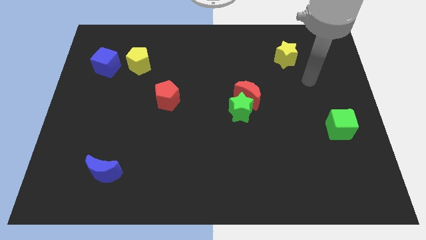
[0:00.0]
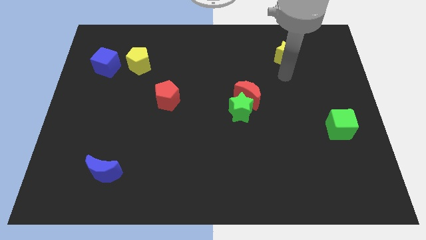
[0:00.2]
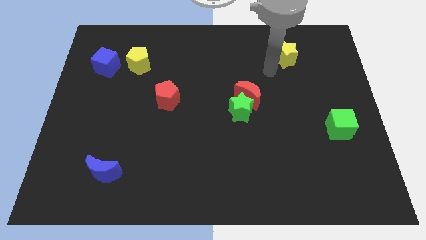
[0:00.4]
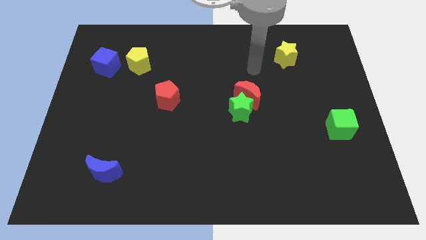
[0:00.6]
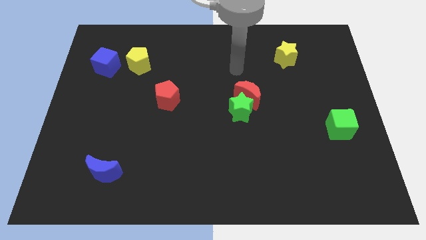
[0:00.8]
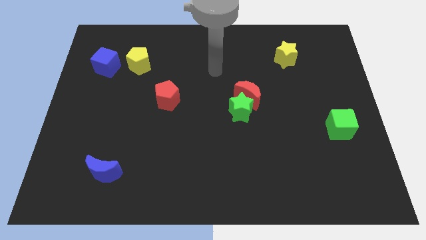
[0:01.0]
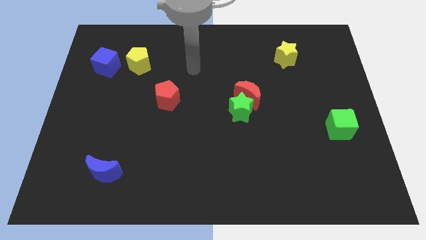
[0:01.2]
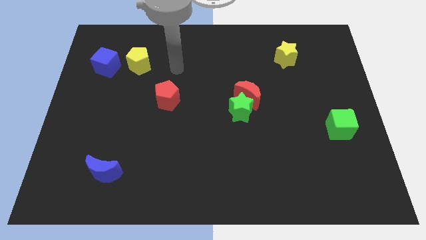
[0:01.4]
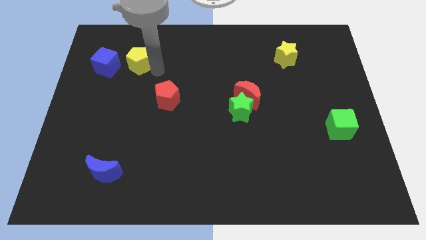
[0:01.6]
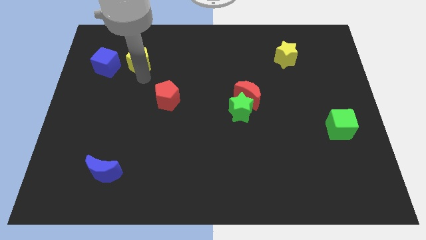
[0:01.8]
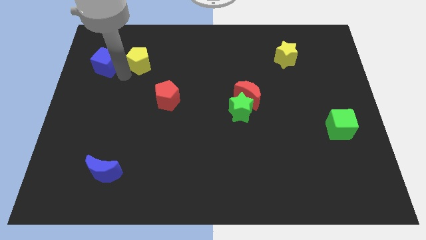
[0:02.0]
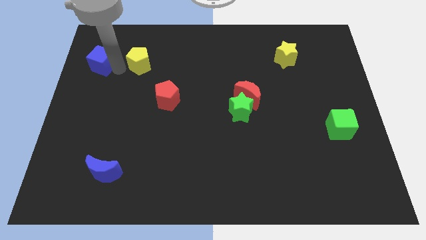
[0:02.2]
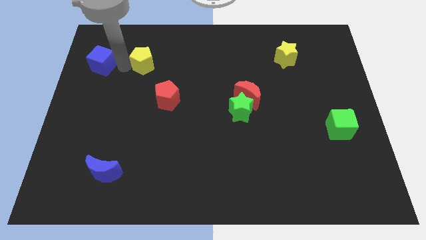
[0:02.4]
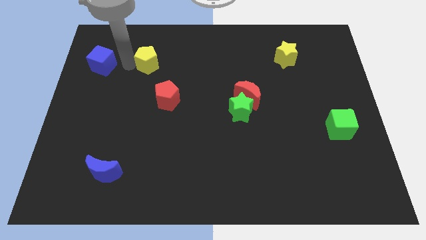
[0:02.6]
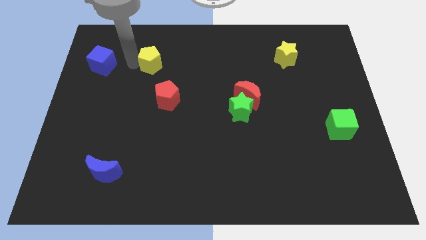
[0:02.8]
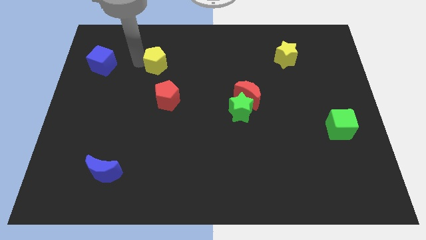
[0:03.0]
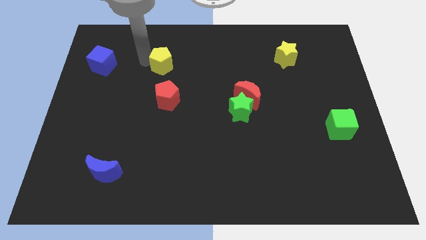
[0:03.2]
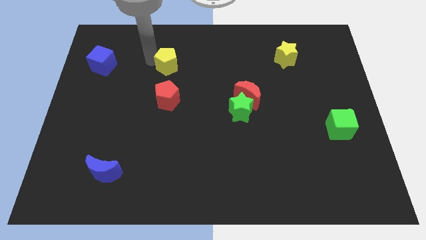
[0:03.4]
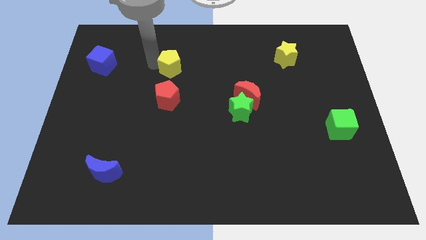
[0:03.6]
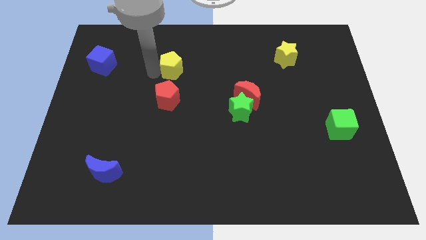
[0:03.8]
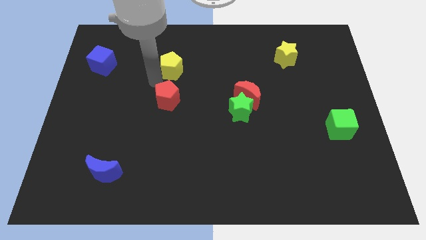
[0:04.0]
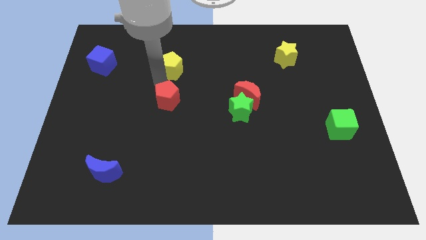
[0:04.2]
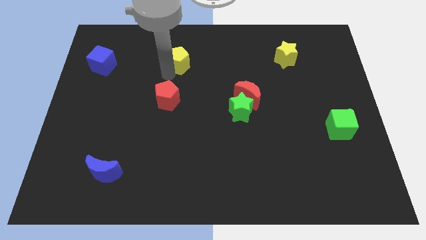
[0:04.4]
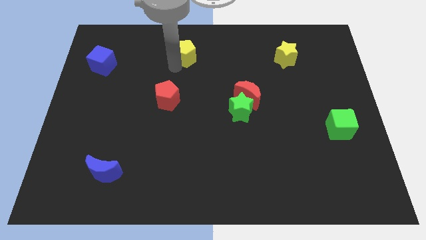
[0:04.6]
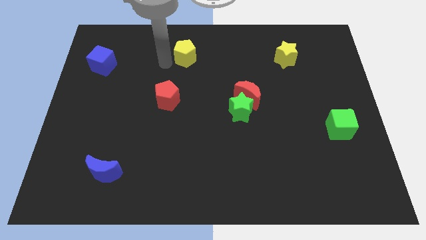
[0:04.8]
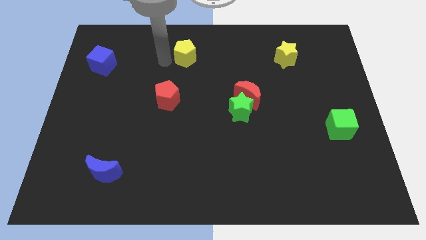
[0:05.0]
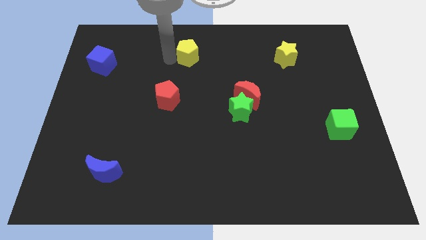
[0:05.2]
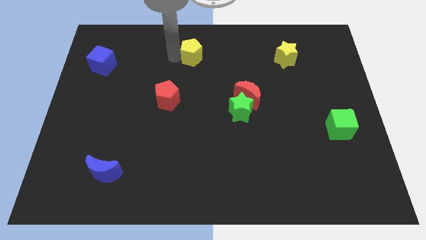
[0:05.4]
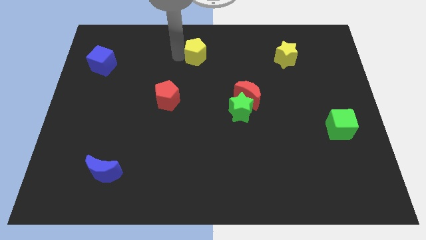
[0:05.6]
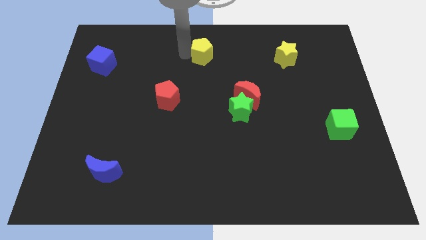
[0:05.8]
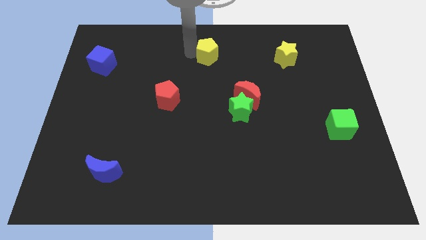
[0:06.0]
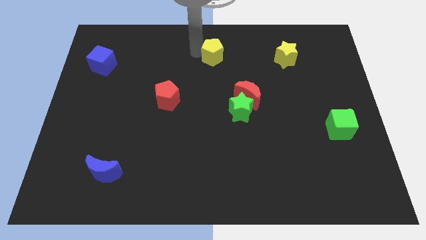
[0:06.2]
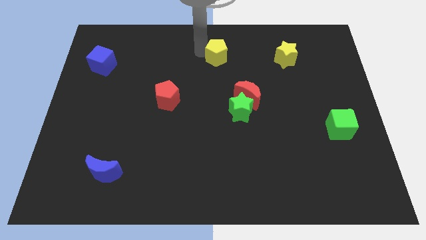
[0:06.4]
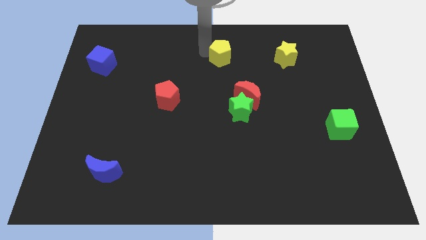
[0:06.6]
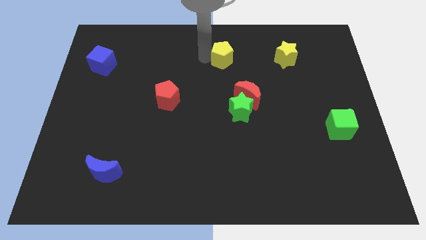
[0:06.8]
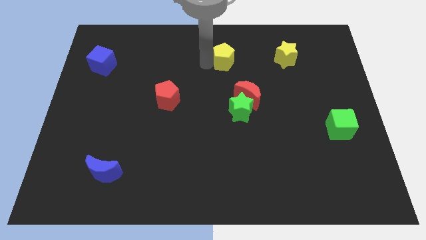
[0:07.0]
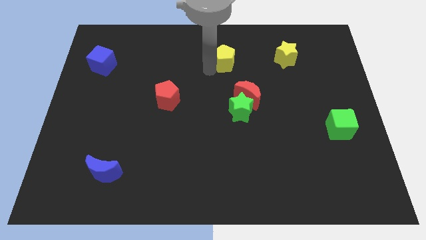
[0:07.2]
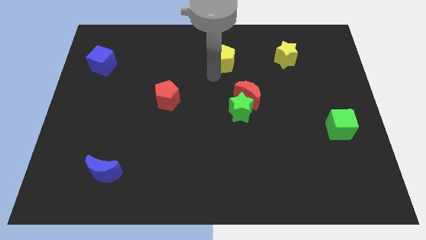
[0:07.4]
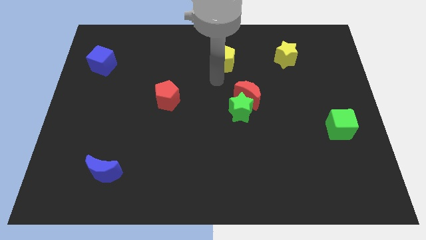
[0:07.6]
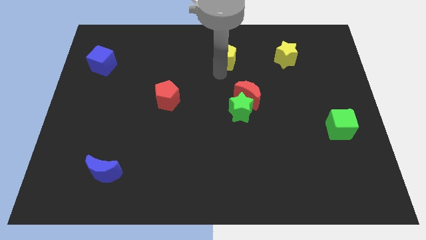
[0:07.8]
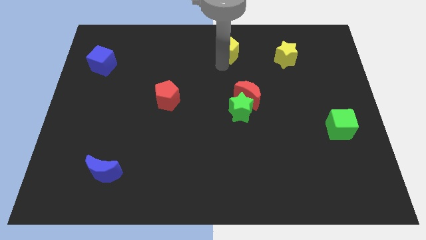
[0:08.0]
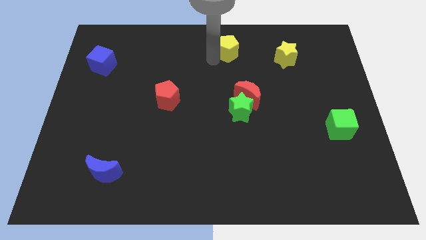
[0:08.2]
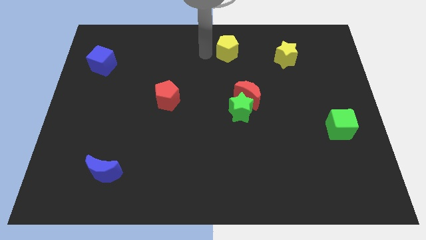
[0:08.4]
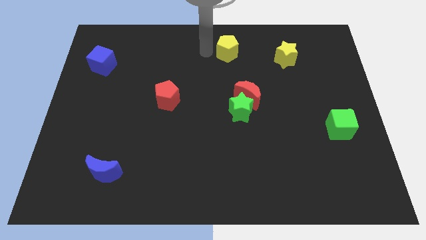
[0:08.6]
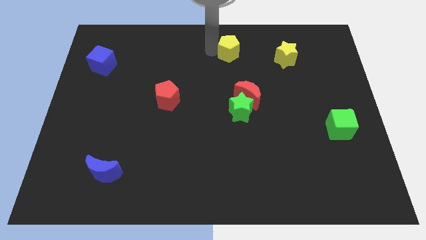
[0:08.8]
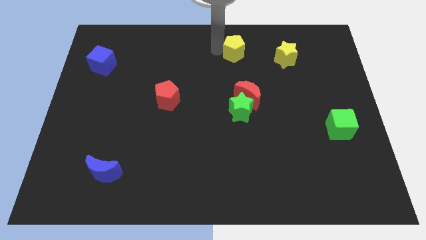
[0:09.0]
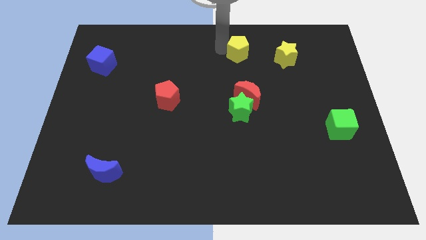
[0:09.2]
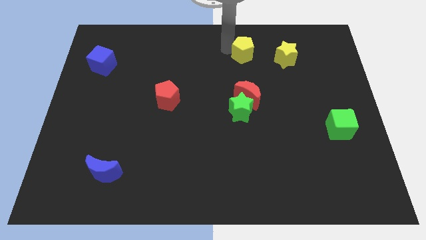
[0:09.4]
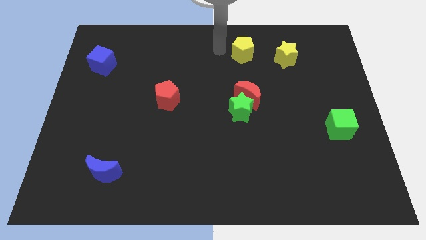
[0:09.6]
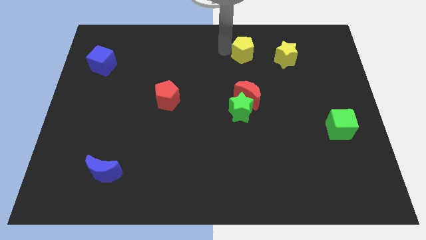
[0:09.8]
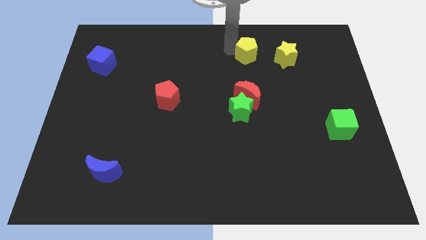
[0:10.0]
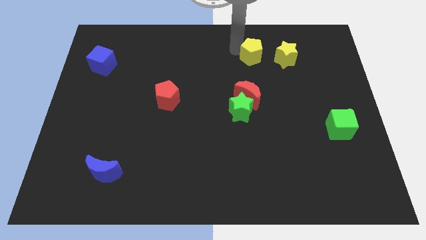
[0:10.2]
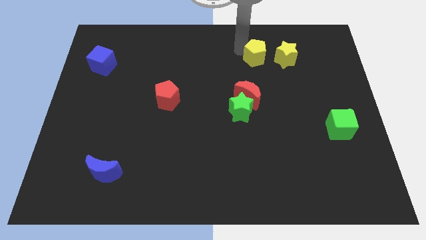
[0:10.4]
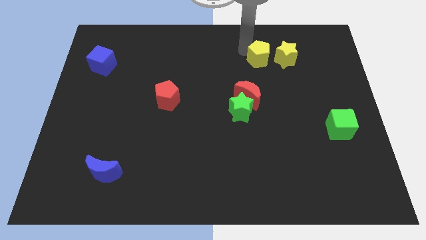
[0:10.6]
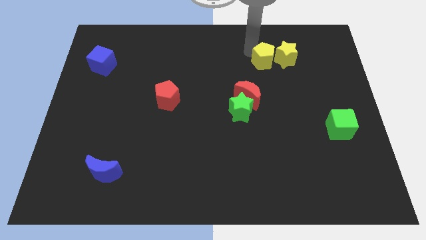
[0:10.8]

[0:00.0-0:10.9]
slide the yellow pentagon to the yellow star

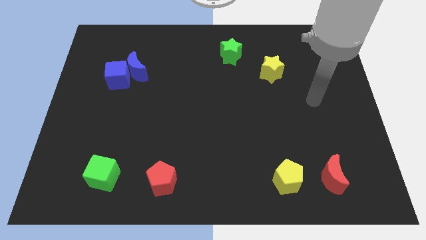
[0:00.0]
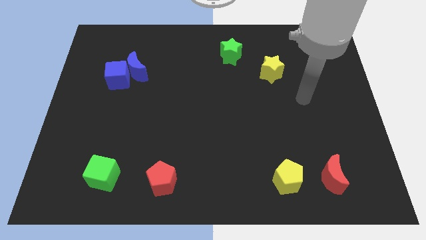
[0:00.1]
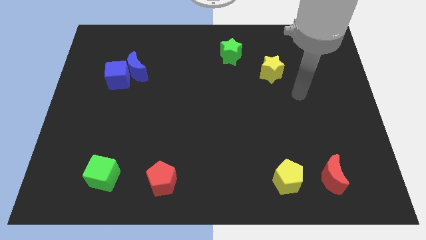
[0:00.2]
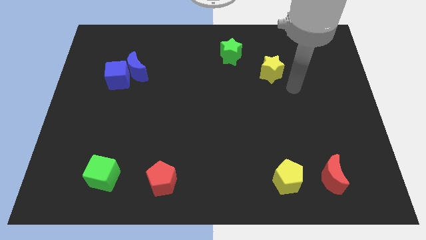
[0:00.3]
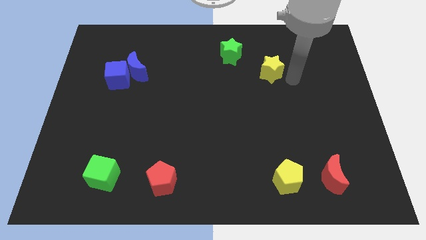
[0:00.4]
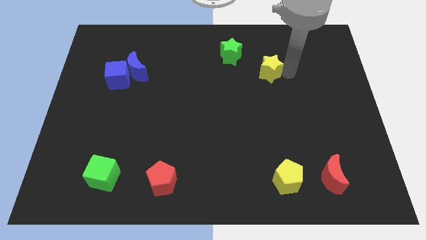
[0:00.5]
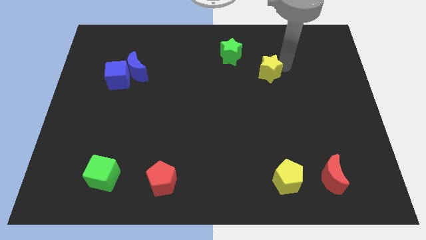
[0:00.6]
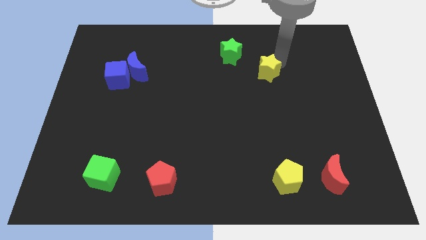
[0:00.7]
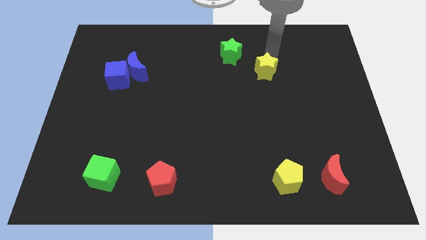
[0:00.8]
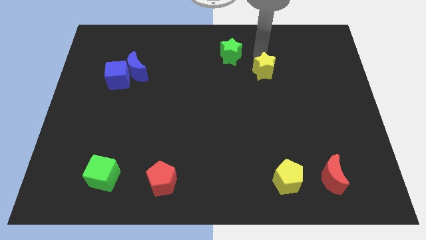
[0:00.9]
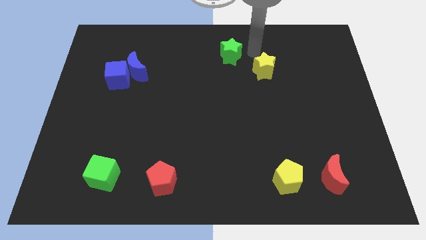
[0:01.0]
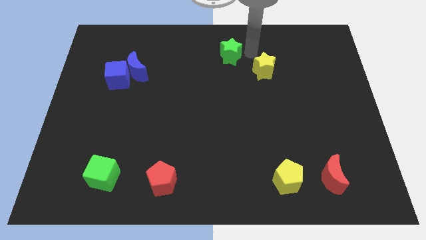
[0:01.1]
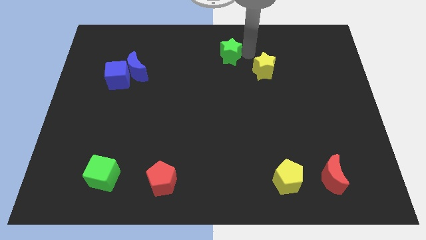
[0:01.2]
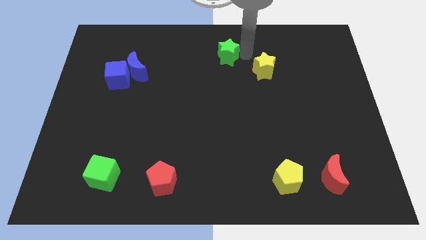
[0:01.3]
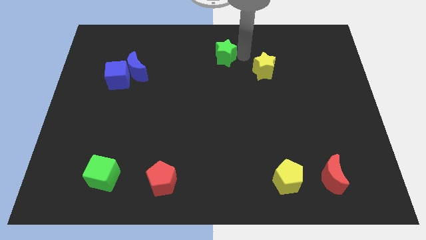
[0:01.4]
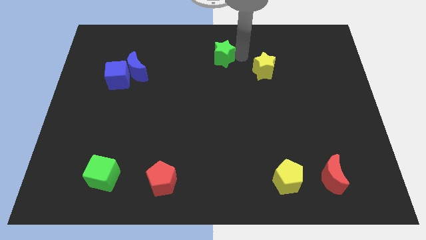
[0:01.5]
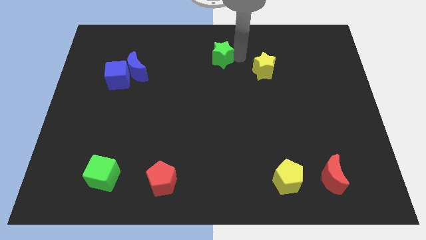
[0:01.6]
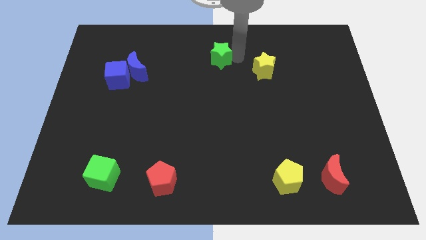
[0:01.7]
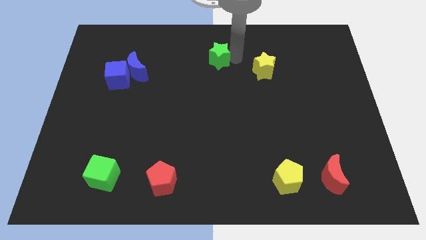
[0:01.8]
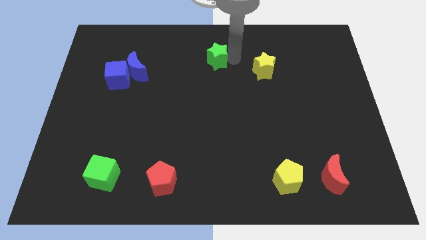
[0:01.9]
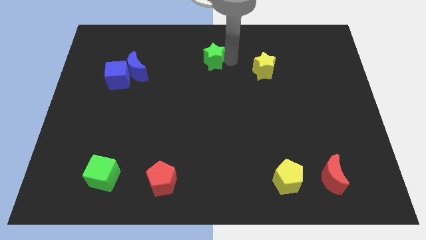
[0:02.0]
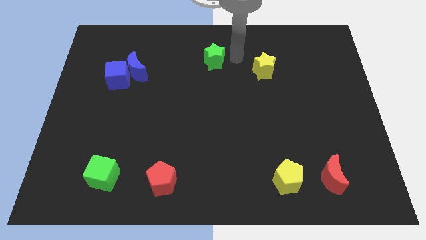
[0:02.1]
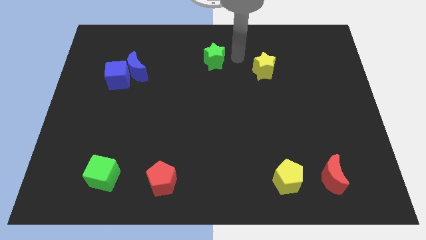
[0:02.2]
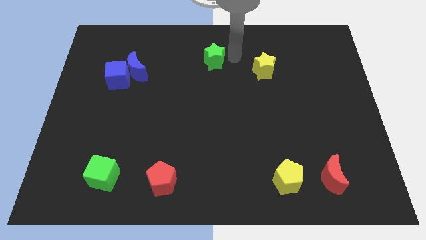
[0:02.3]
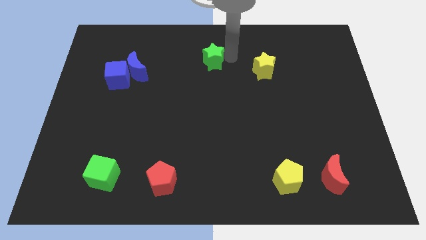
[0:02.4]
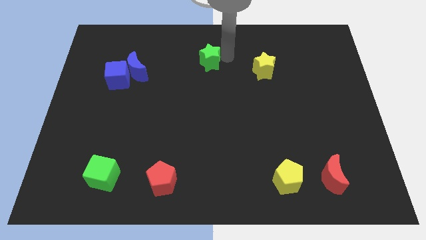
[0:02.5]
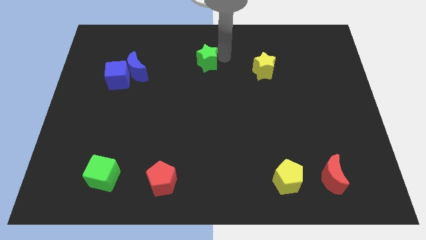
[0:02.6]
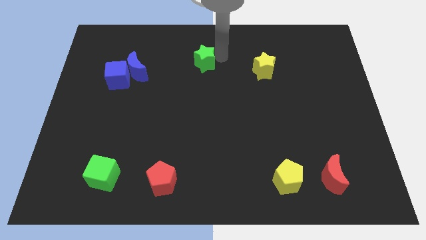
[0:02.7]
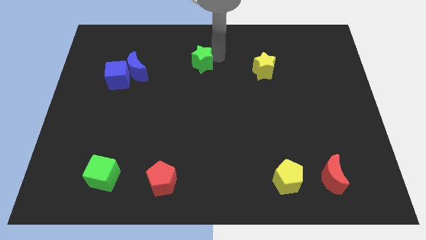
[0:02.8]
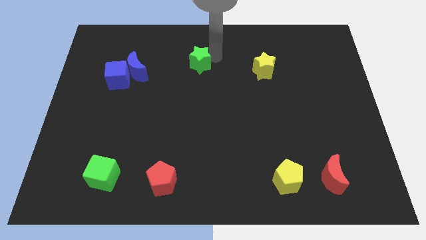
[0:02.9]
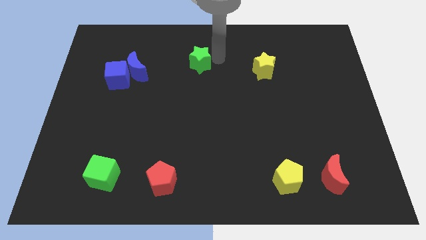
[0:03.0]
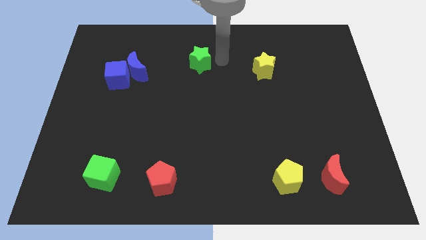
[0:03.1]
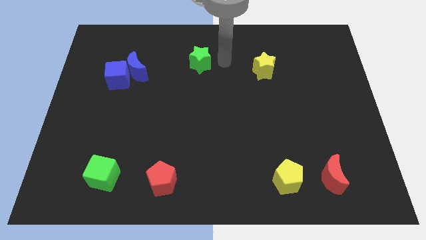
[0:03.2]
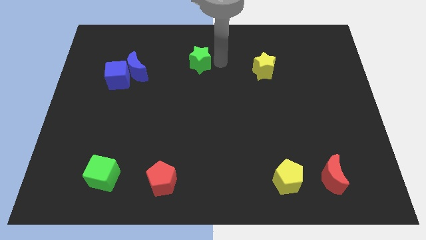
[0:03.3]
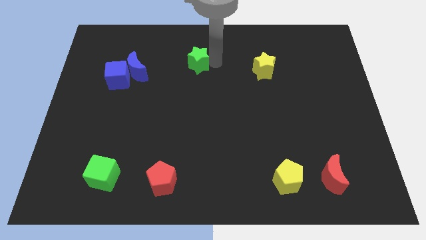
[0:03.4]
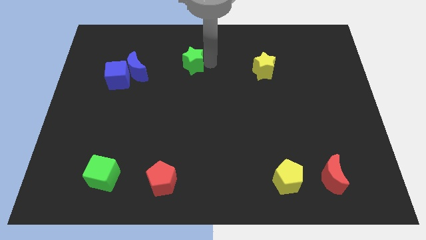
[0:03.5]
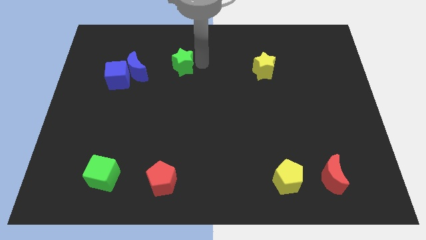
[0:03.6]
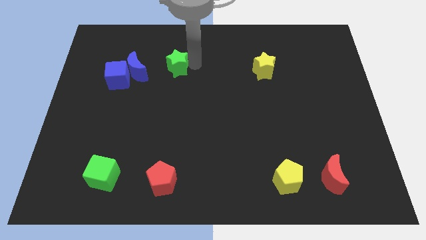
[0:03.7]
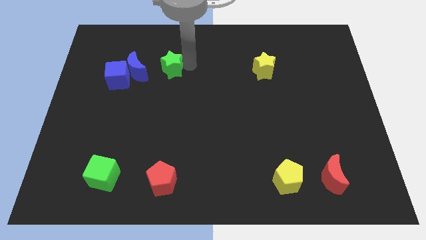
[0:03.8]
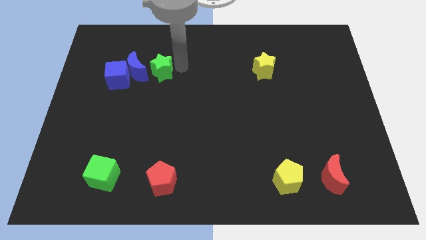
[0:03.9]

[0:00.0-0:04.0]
slide the green star to the blue moon
